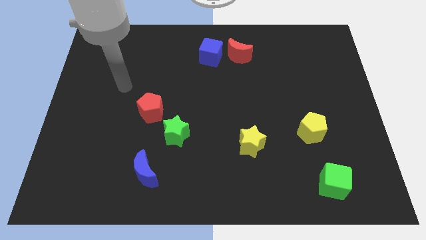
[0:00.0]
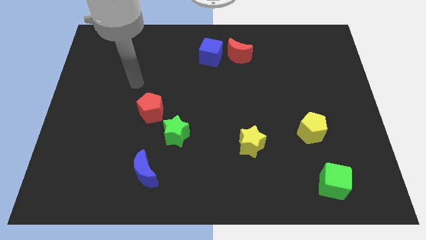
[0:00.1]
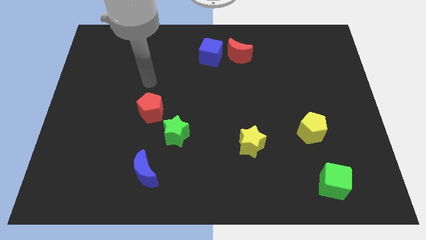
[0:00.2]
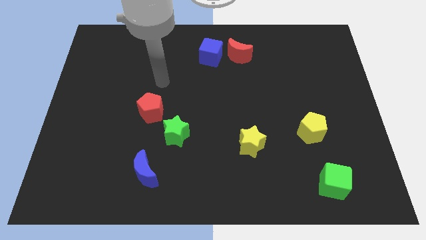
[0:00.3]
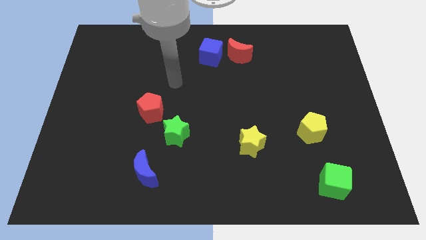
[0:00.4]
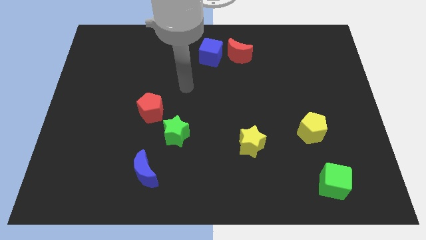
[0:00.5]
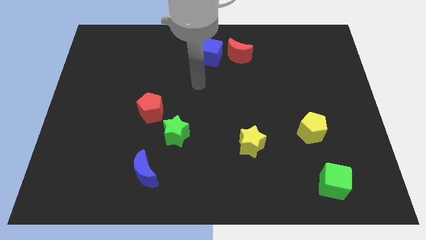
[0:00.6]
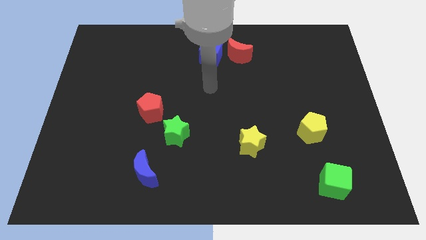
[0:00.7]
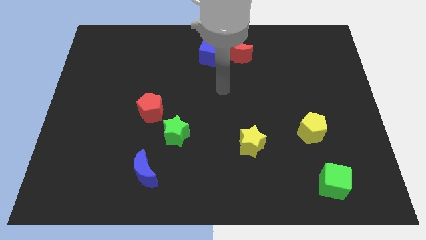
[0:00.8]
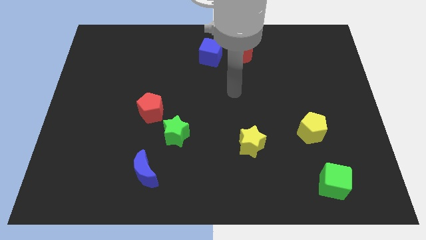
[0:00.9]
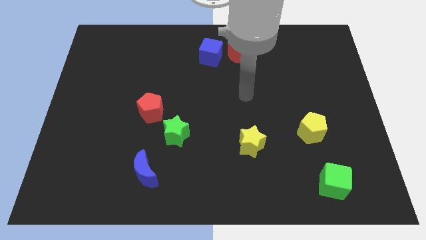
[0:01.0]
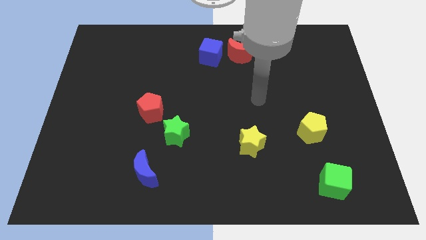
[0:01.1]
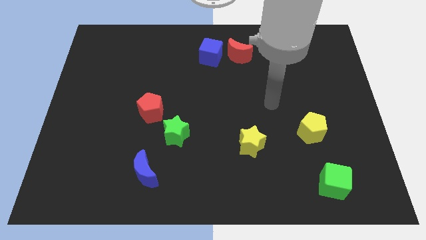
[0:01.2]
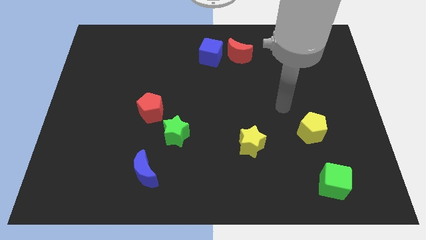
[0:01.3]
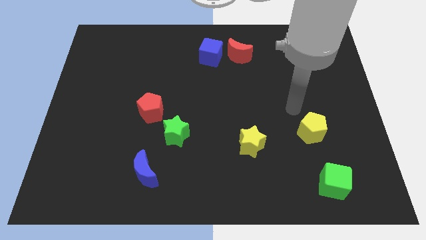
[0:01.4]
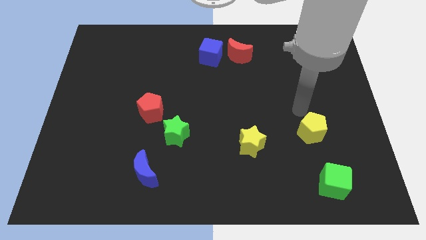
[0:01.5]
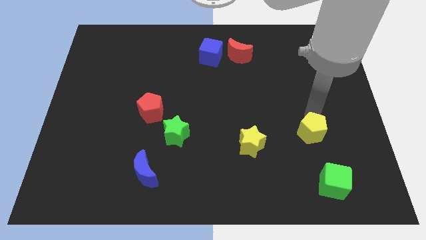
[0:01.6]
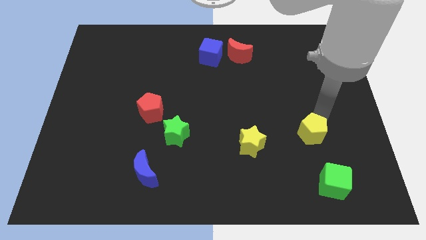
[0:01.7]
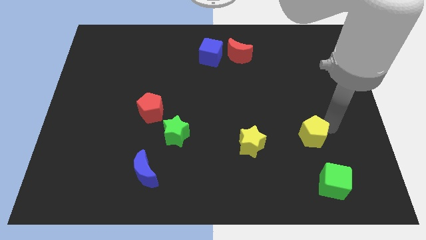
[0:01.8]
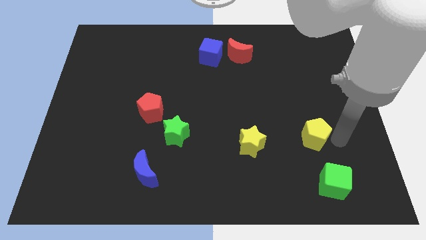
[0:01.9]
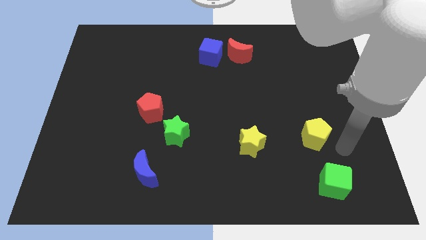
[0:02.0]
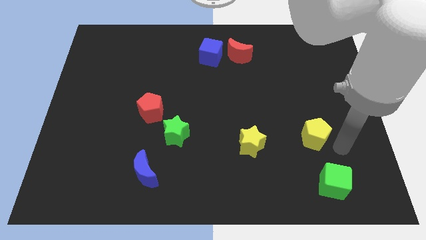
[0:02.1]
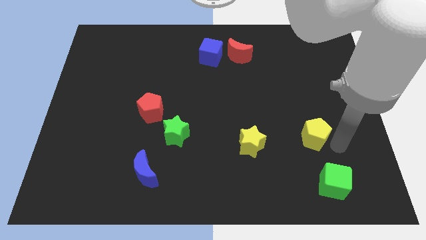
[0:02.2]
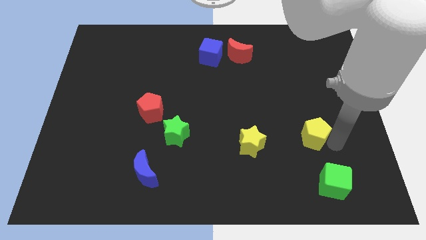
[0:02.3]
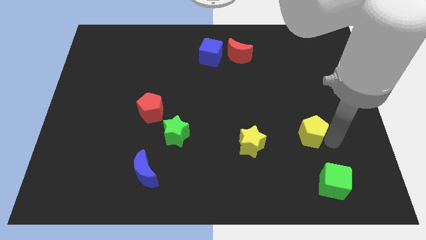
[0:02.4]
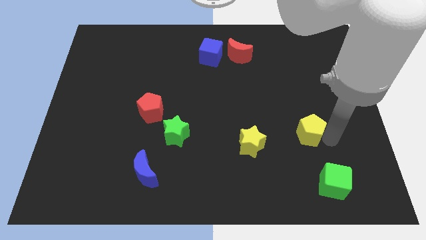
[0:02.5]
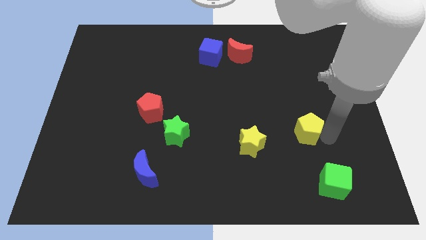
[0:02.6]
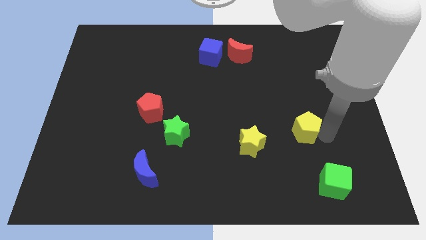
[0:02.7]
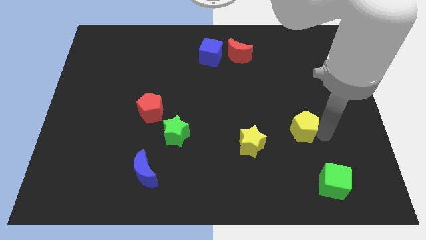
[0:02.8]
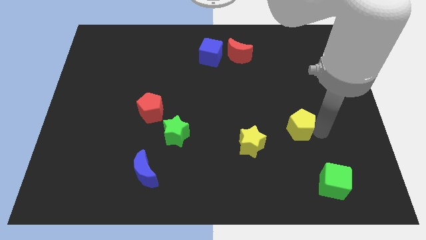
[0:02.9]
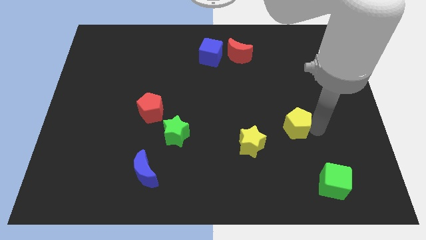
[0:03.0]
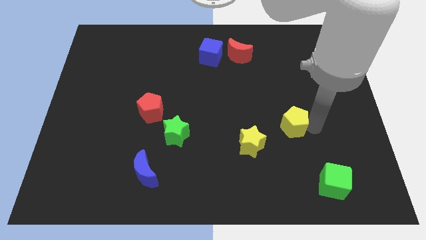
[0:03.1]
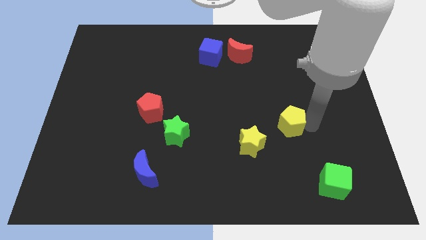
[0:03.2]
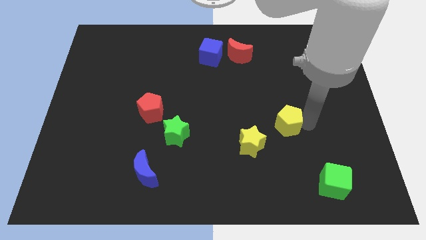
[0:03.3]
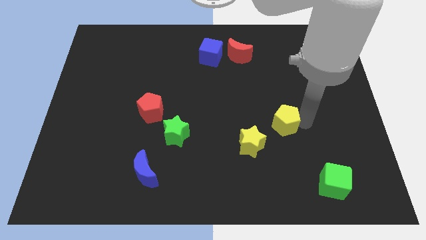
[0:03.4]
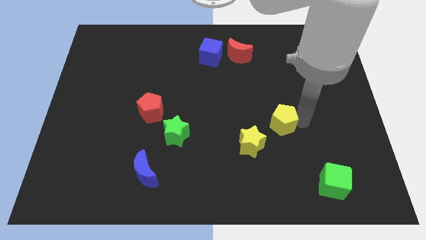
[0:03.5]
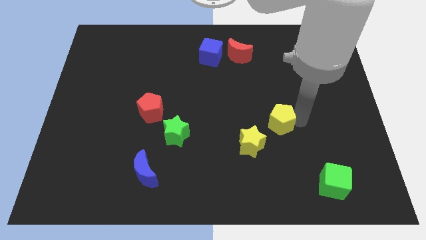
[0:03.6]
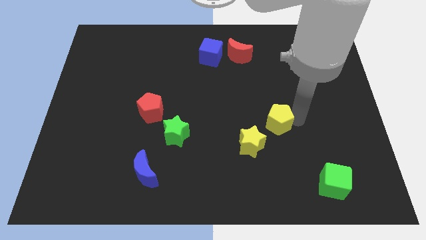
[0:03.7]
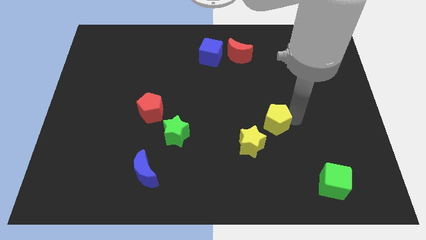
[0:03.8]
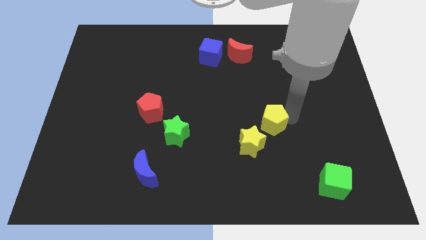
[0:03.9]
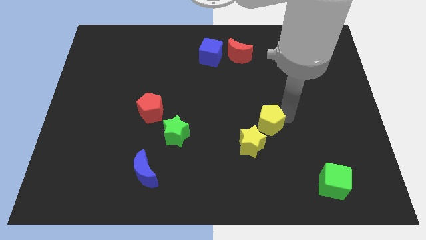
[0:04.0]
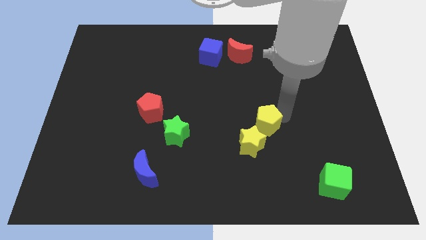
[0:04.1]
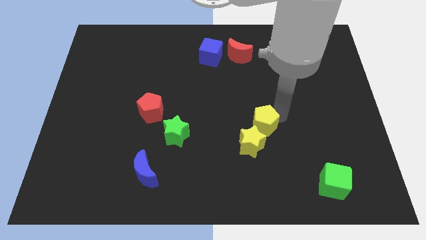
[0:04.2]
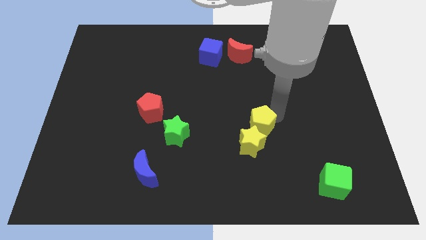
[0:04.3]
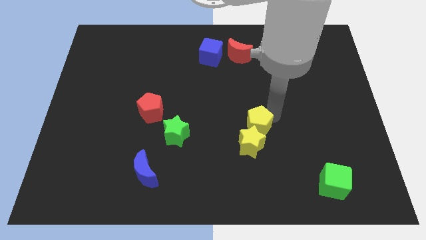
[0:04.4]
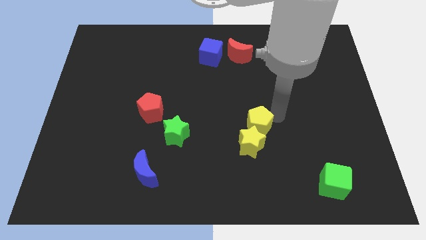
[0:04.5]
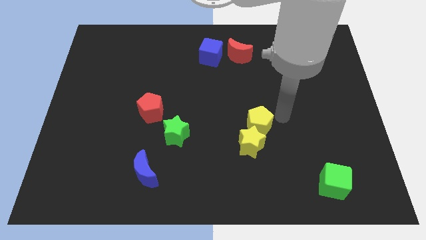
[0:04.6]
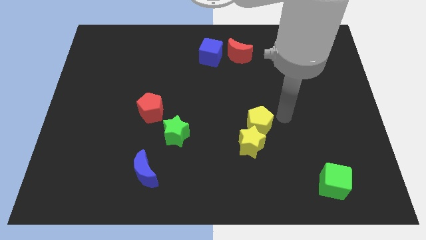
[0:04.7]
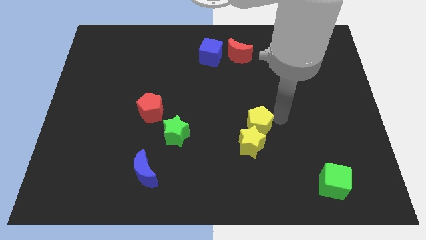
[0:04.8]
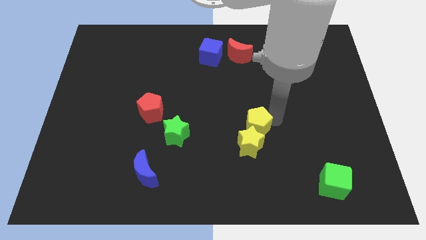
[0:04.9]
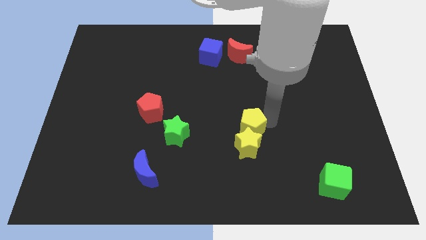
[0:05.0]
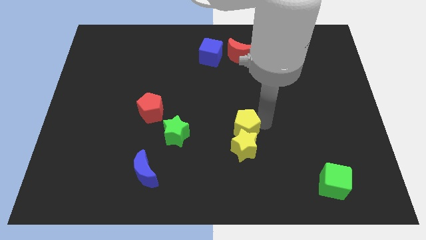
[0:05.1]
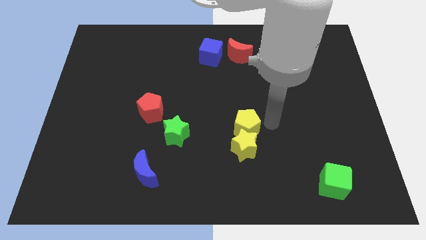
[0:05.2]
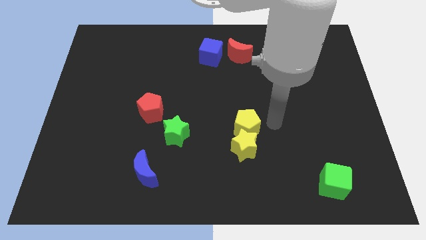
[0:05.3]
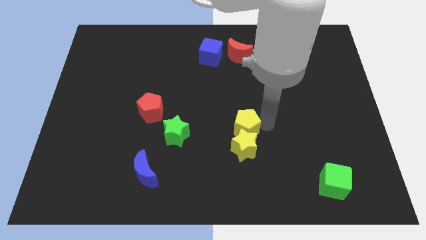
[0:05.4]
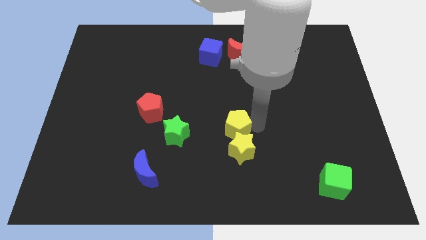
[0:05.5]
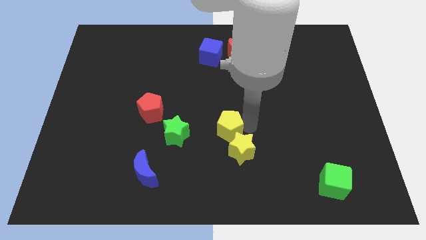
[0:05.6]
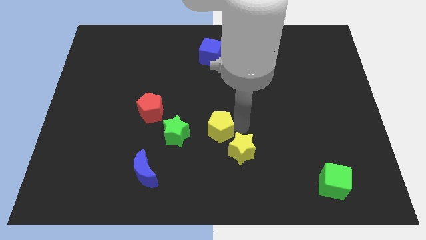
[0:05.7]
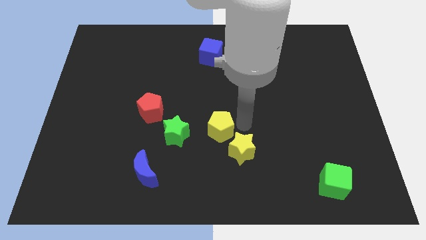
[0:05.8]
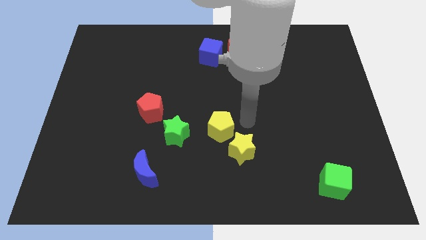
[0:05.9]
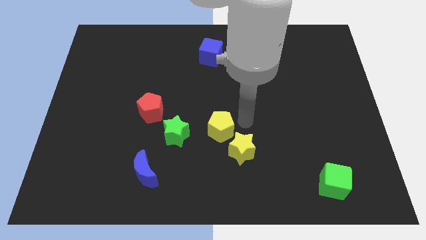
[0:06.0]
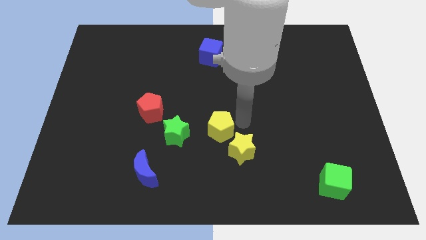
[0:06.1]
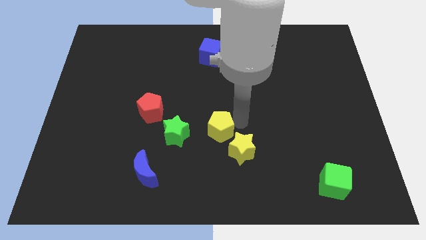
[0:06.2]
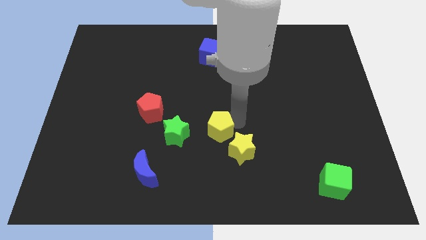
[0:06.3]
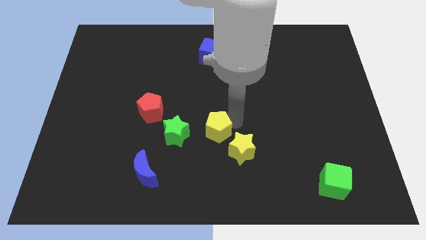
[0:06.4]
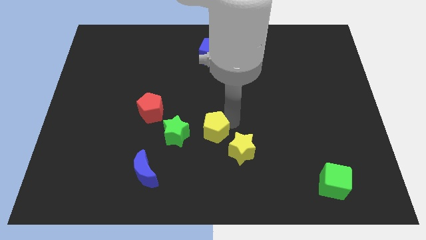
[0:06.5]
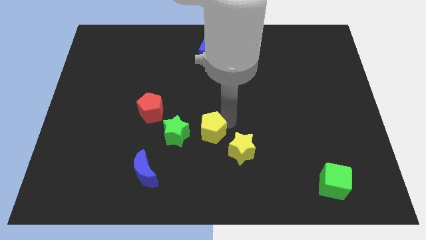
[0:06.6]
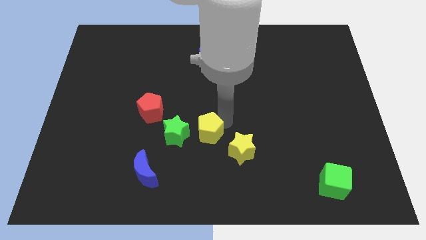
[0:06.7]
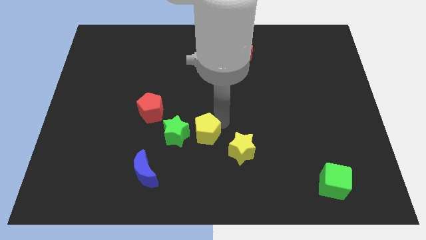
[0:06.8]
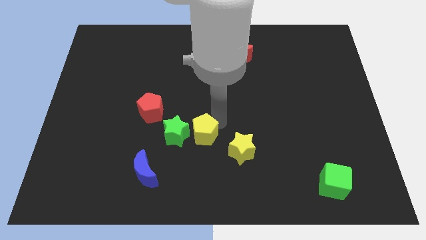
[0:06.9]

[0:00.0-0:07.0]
move the yellow pentagon close to the green star

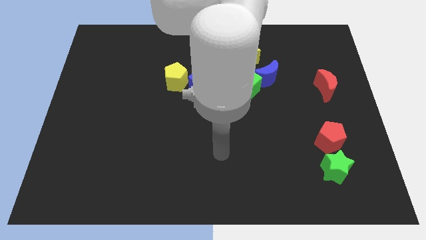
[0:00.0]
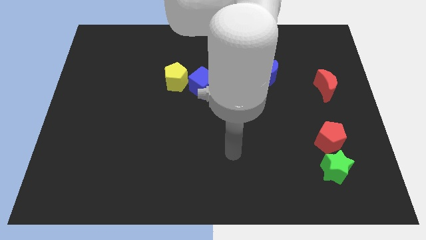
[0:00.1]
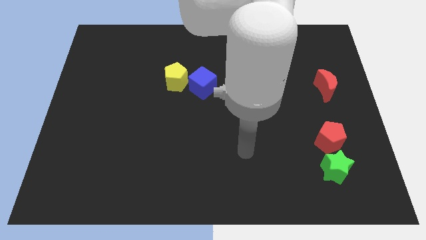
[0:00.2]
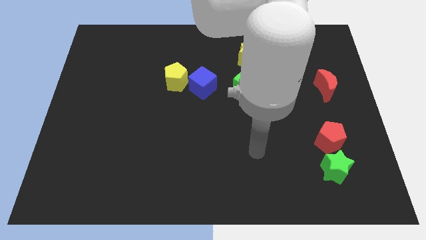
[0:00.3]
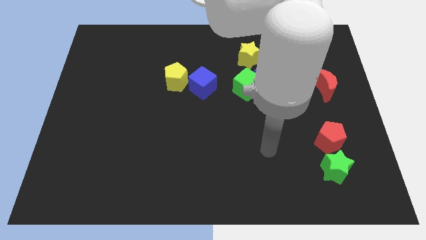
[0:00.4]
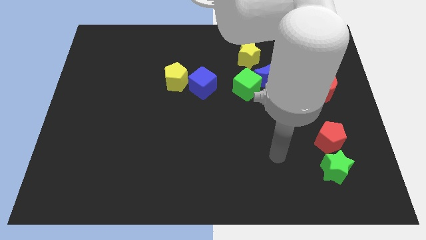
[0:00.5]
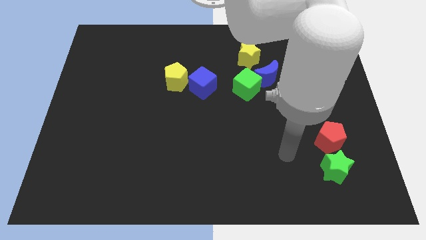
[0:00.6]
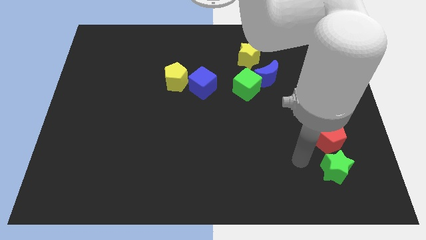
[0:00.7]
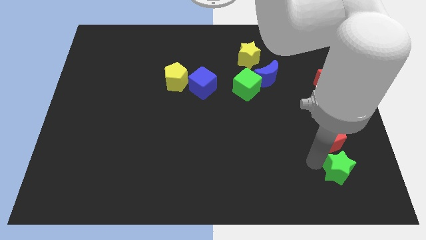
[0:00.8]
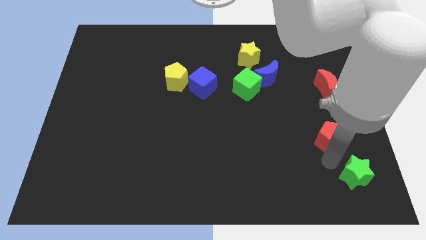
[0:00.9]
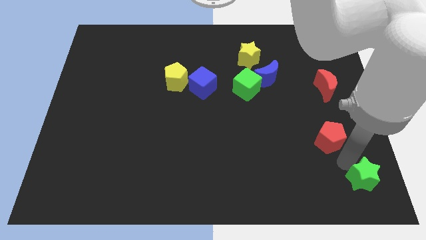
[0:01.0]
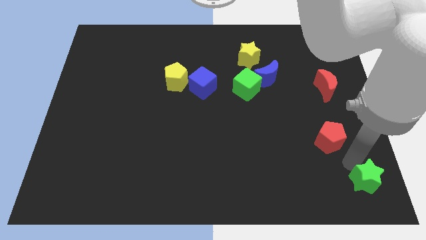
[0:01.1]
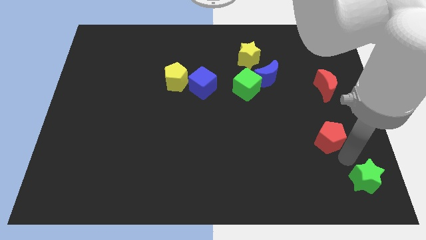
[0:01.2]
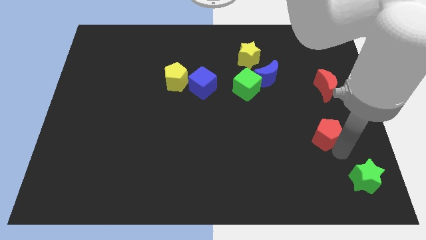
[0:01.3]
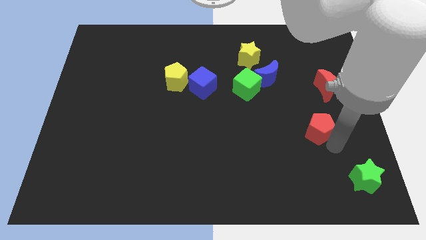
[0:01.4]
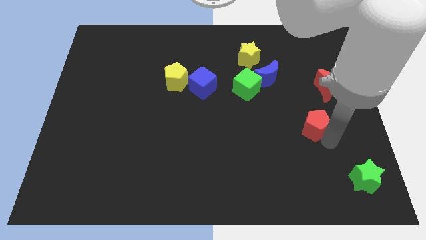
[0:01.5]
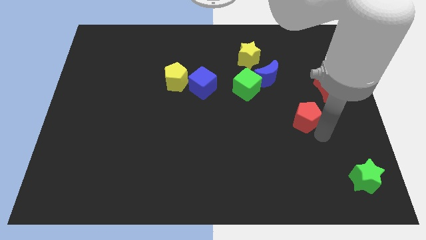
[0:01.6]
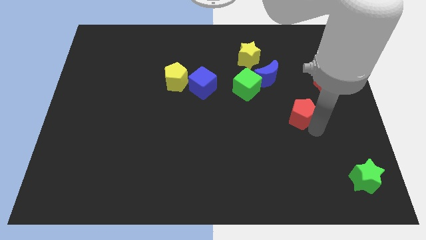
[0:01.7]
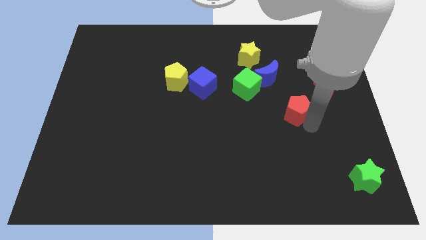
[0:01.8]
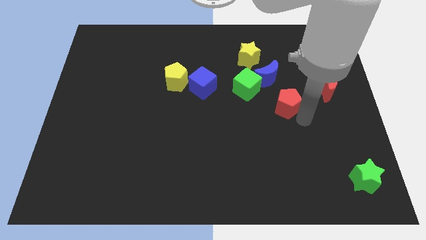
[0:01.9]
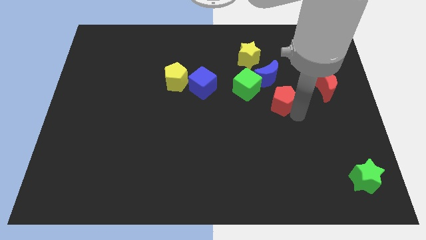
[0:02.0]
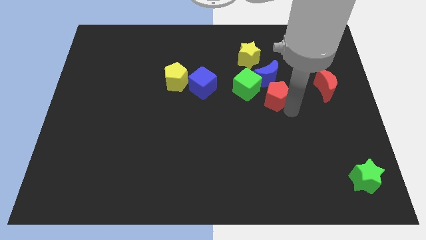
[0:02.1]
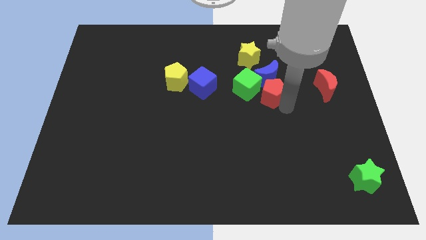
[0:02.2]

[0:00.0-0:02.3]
put the red pentagon close to the blue moon
